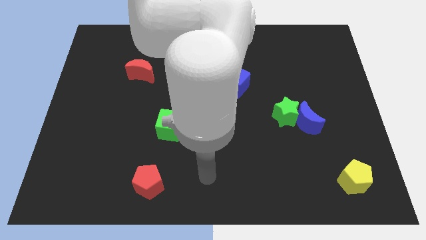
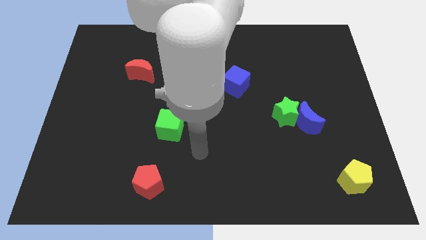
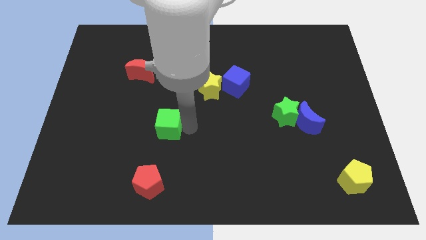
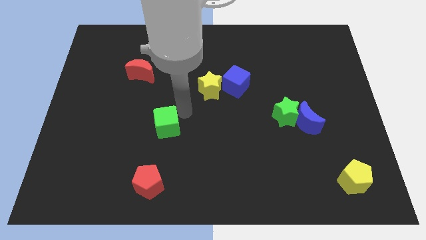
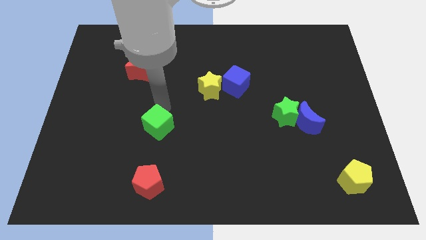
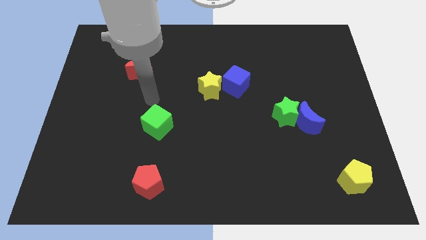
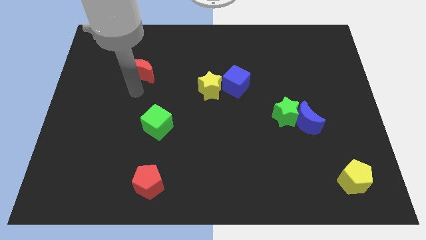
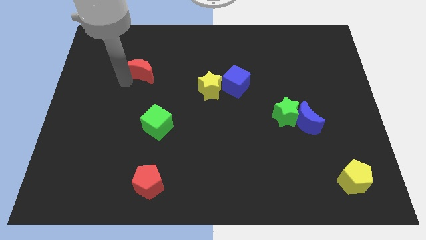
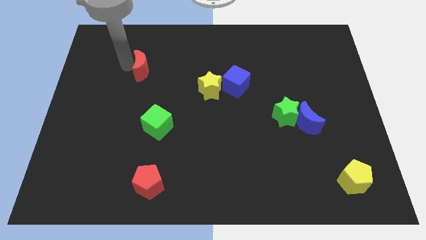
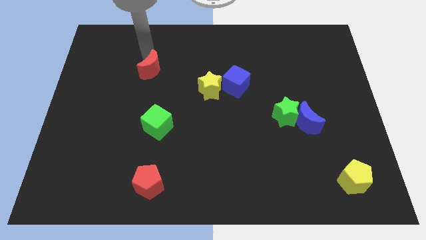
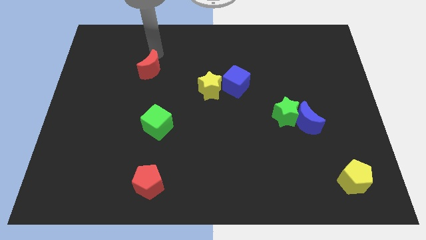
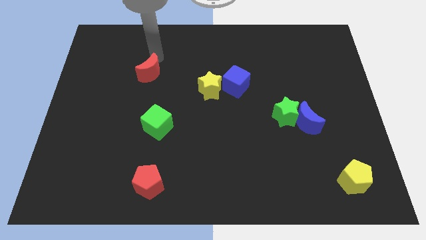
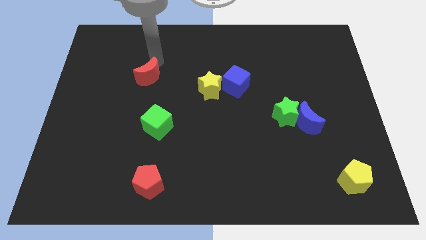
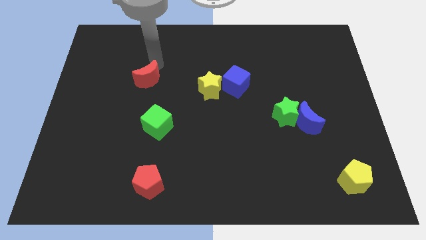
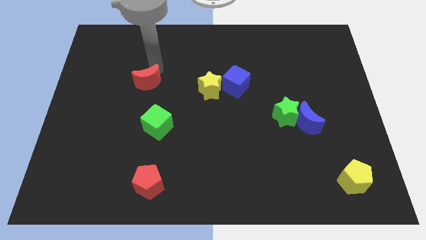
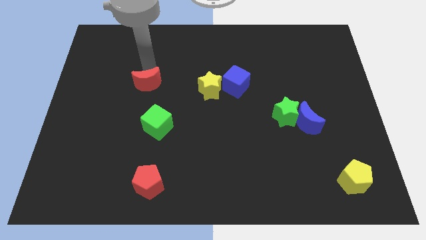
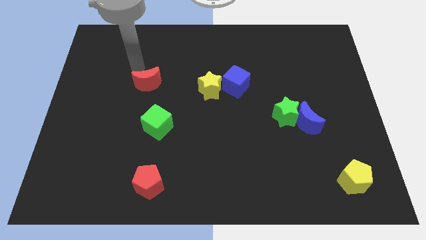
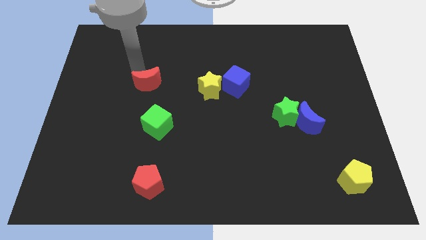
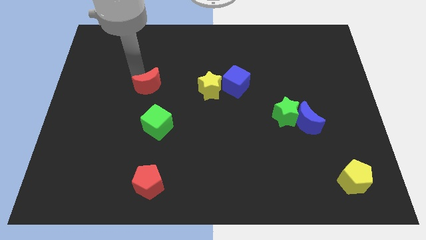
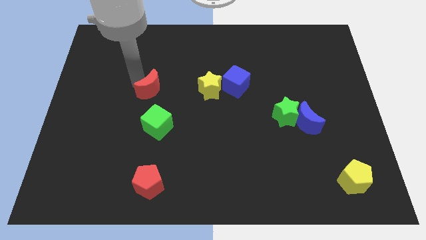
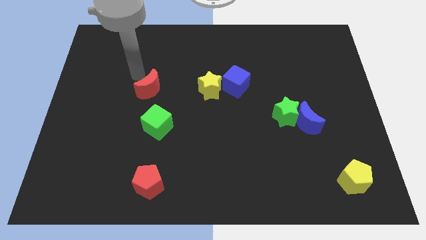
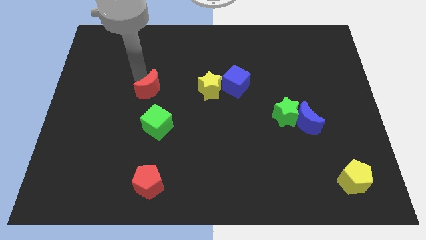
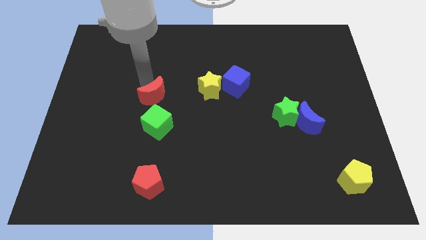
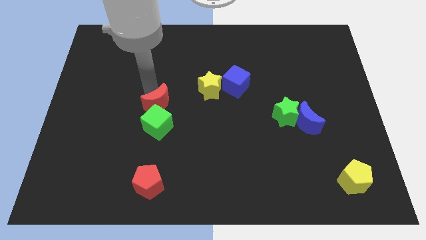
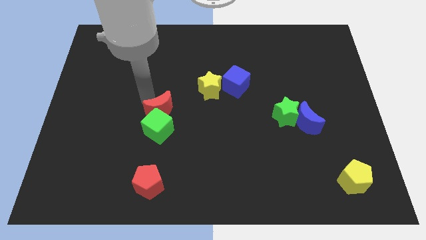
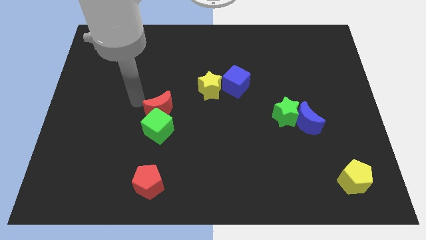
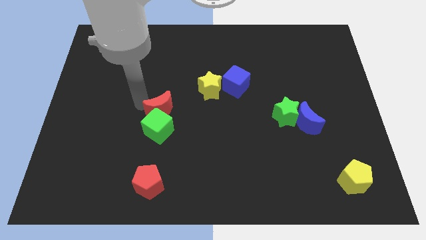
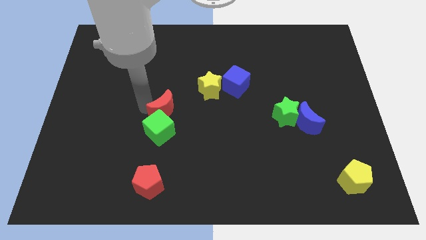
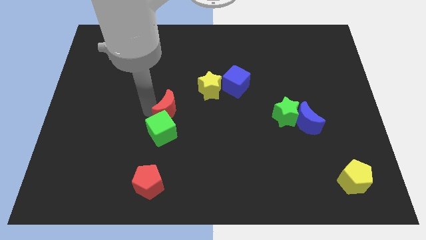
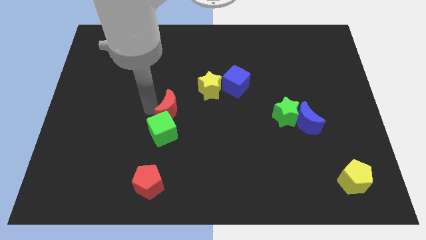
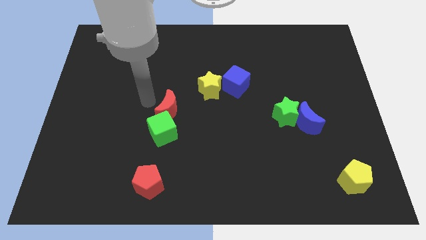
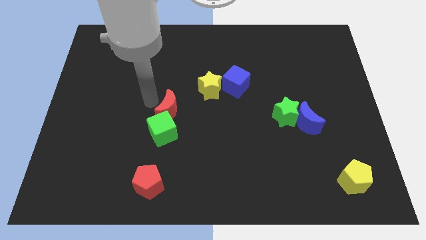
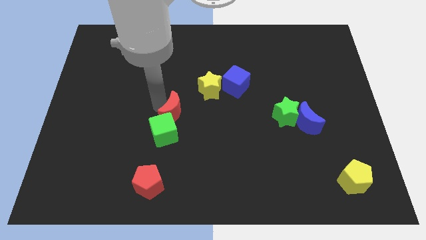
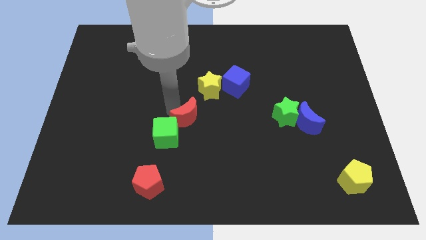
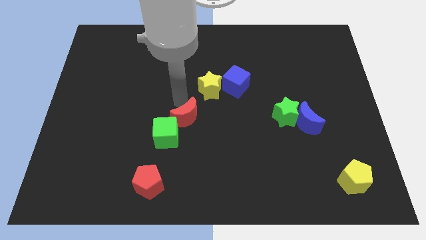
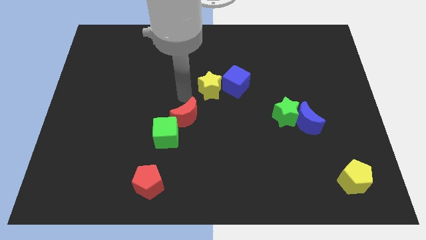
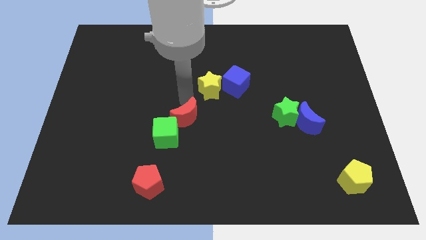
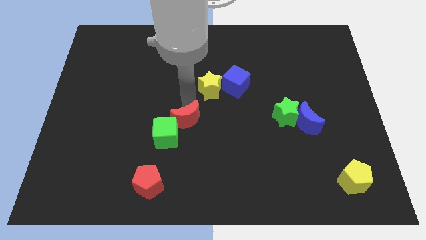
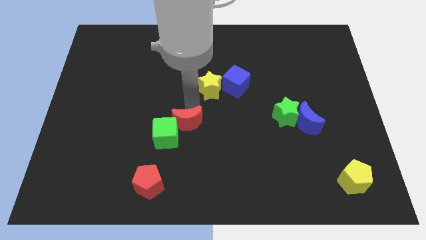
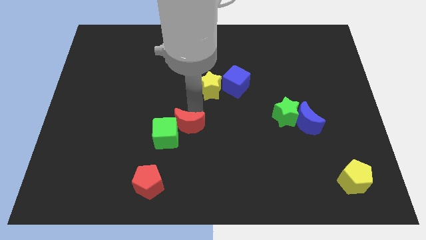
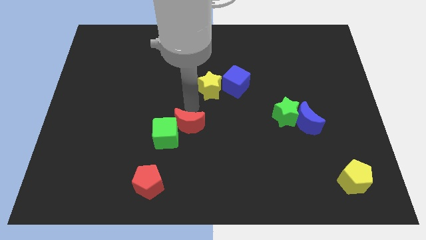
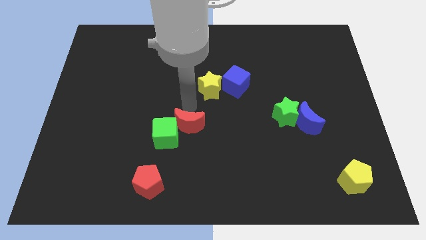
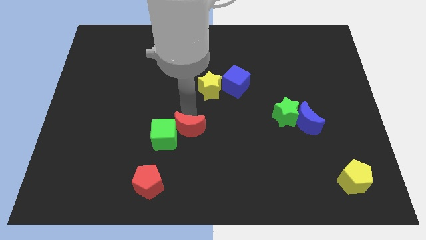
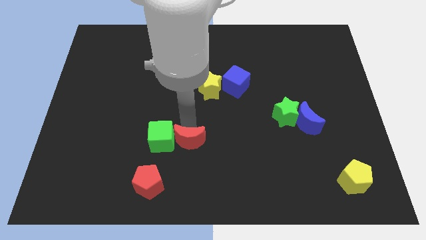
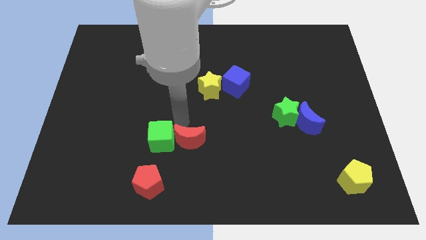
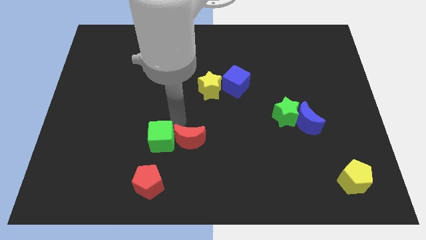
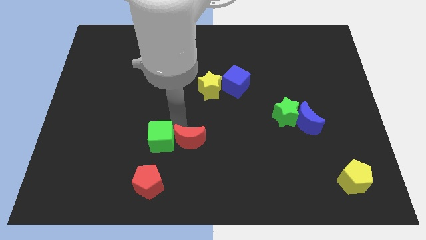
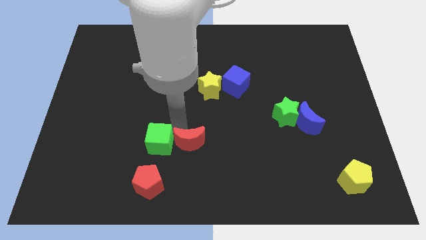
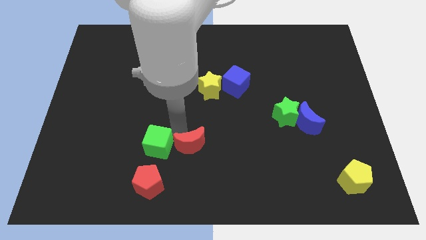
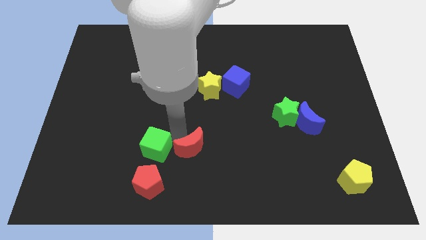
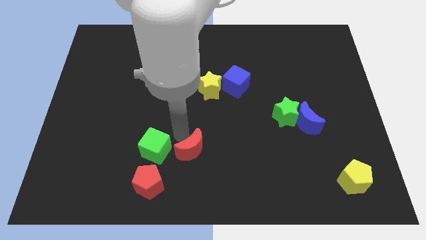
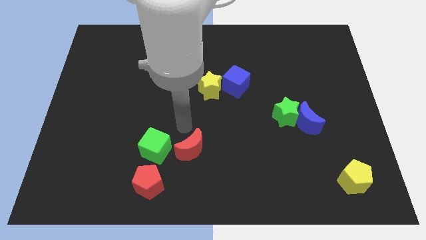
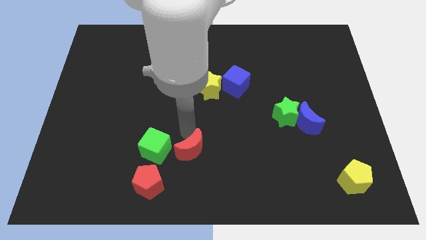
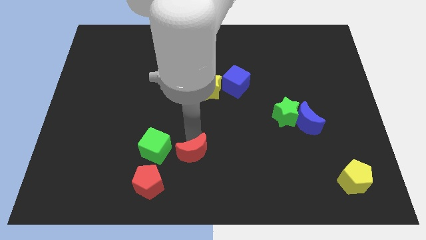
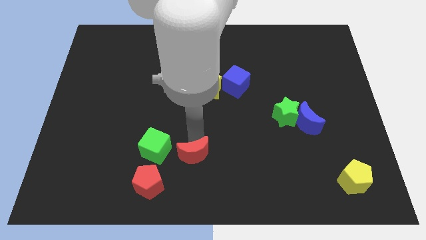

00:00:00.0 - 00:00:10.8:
put the red moon to the bottom

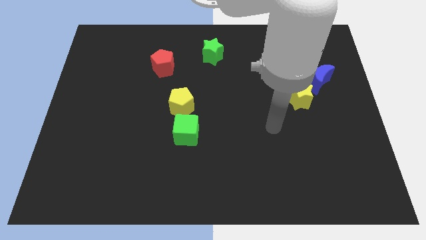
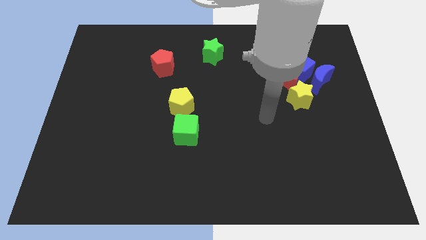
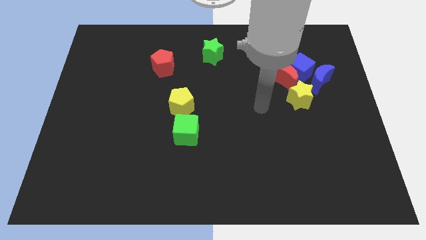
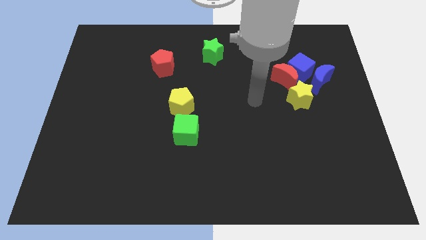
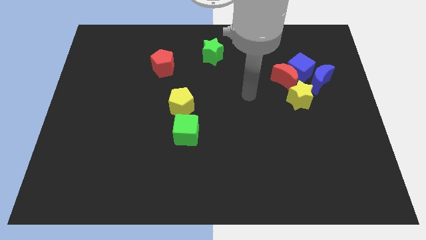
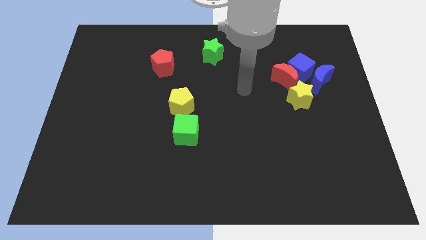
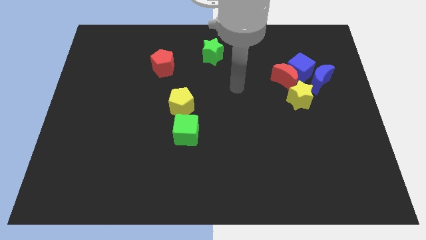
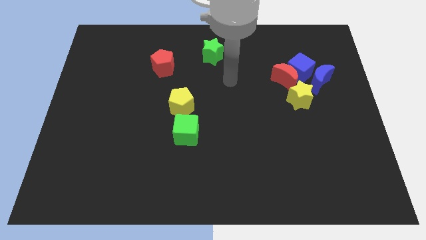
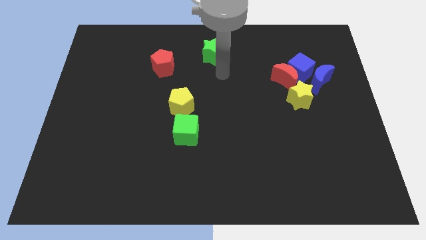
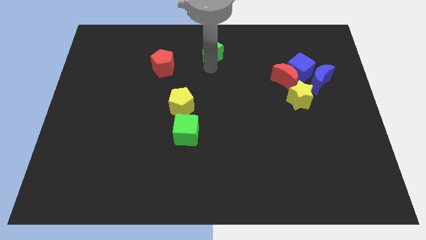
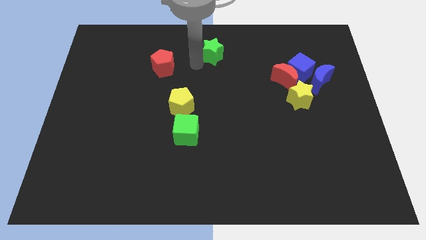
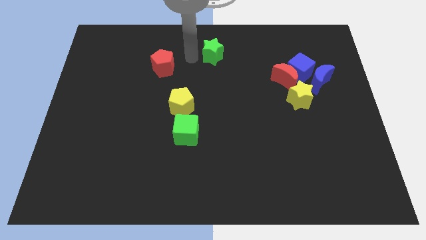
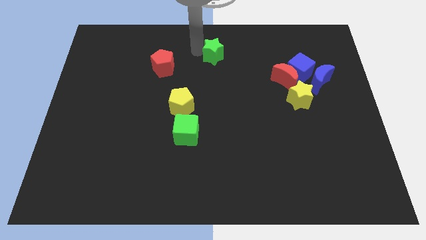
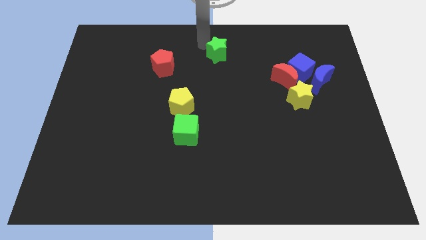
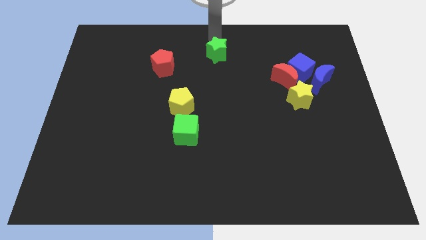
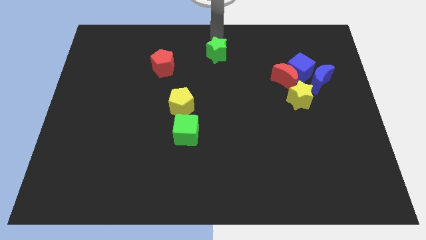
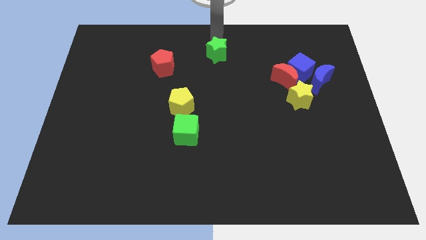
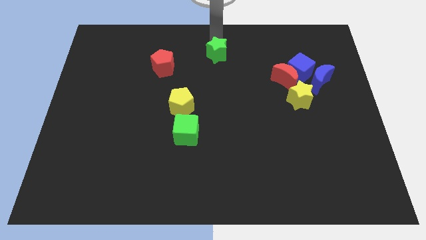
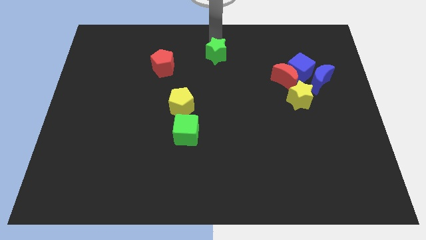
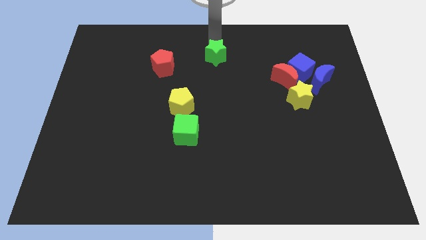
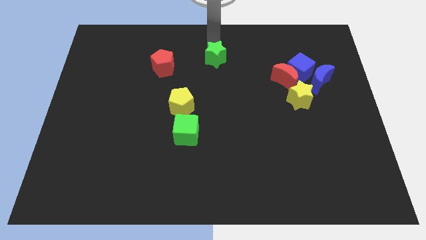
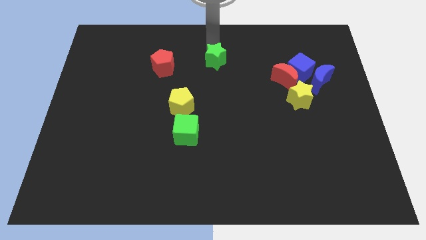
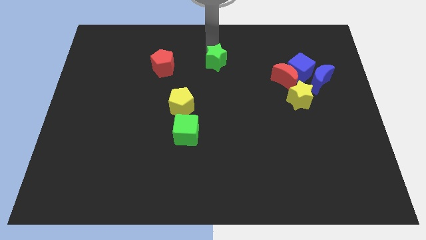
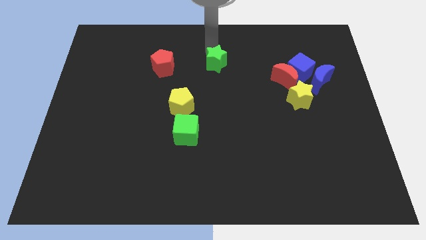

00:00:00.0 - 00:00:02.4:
put the green star to the center of the board
